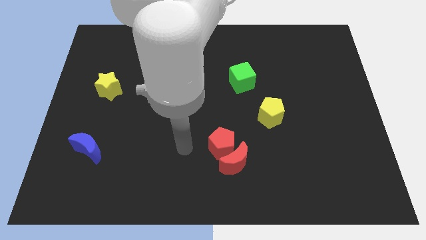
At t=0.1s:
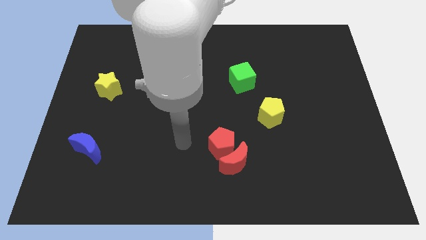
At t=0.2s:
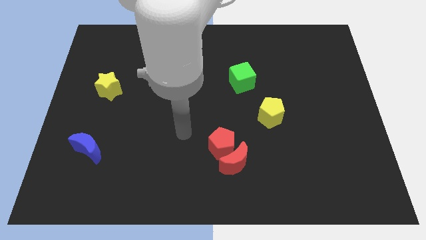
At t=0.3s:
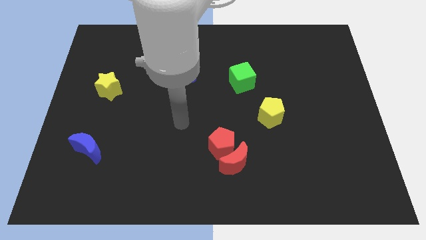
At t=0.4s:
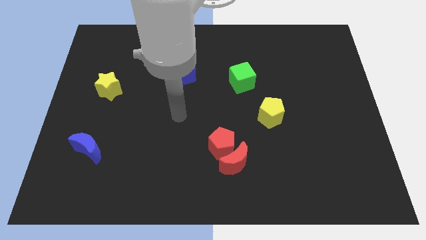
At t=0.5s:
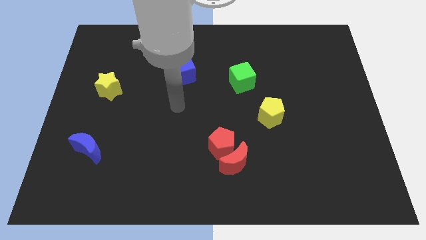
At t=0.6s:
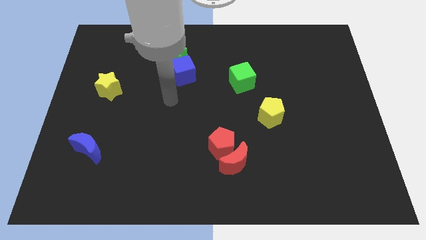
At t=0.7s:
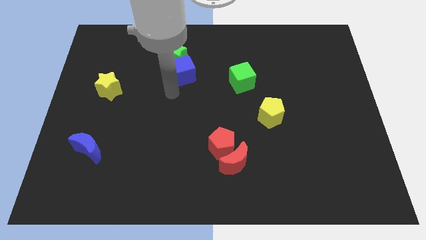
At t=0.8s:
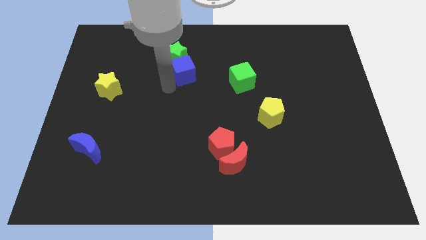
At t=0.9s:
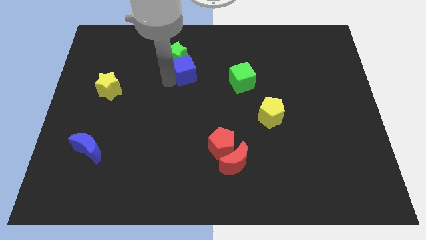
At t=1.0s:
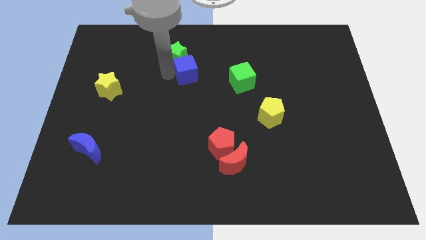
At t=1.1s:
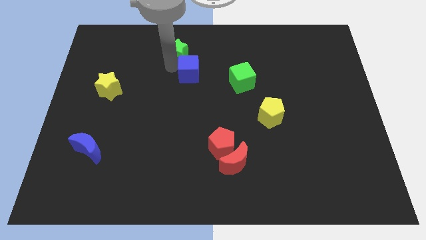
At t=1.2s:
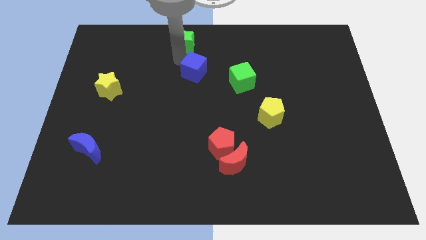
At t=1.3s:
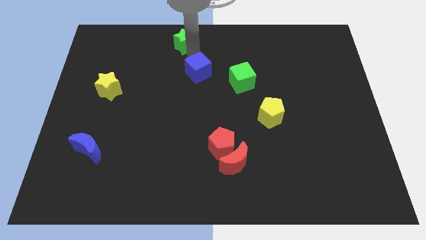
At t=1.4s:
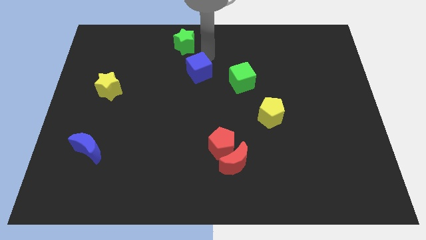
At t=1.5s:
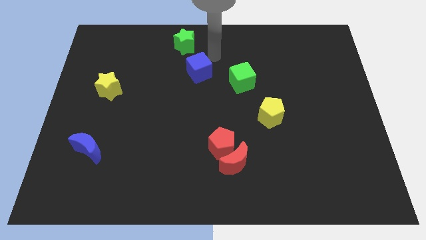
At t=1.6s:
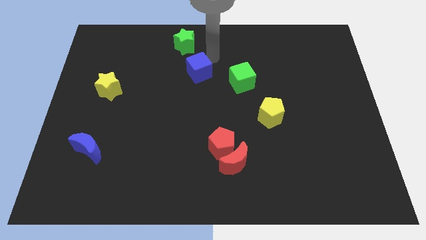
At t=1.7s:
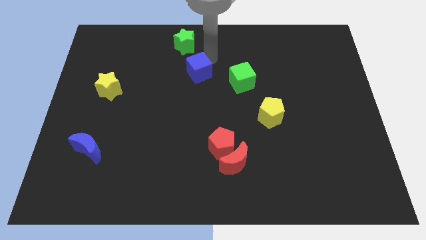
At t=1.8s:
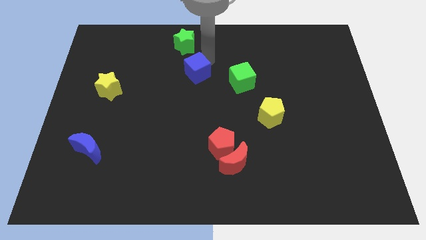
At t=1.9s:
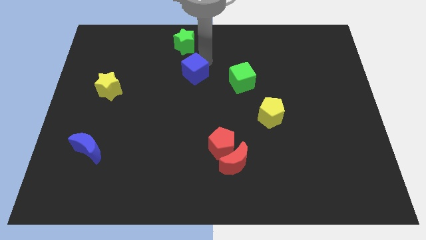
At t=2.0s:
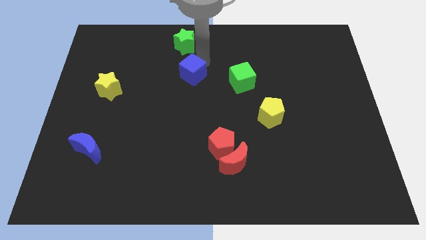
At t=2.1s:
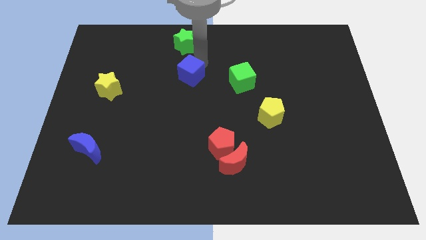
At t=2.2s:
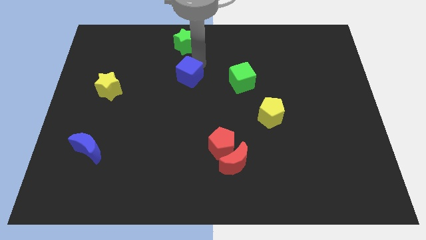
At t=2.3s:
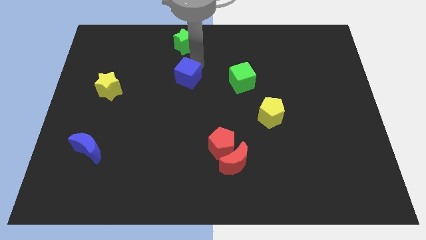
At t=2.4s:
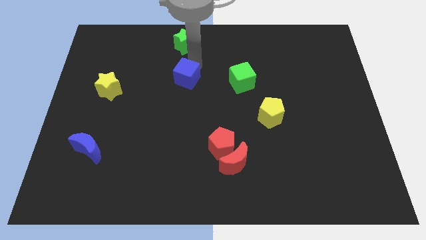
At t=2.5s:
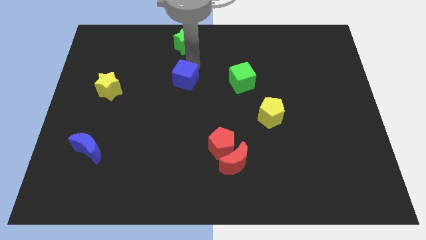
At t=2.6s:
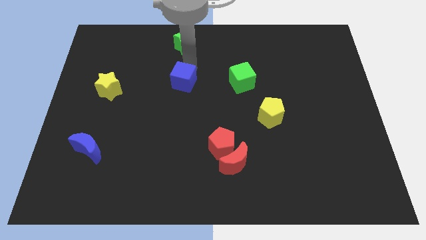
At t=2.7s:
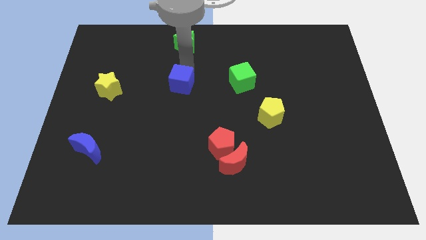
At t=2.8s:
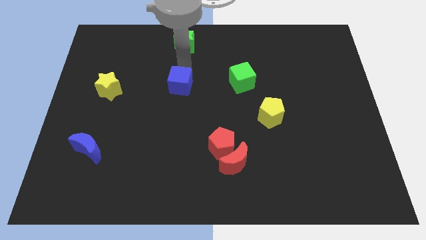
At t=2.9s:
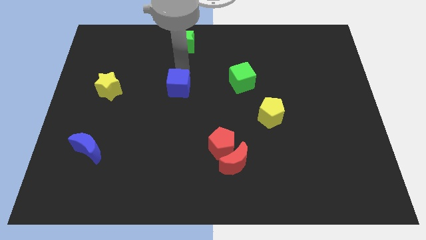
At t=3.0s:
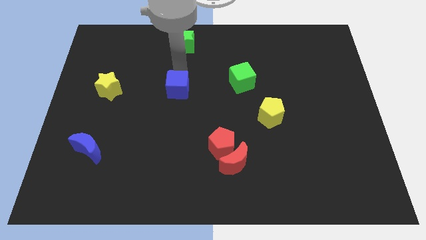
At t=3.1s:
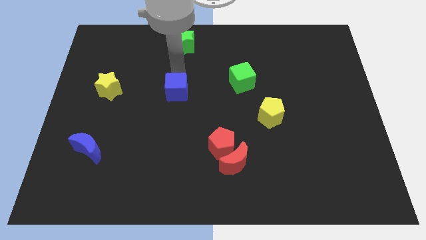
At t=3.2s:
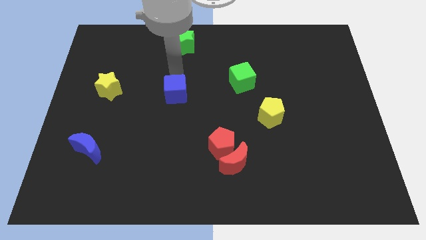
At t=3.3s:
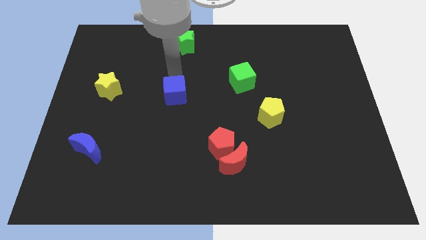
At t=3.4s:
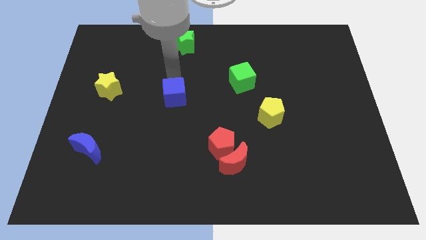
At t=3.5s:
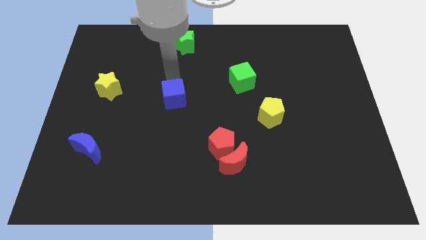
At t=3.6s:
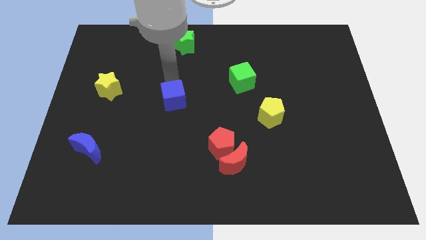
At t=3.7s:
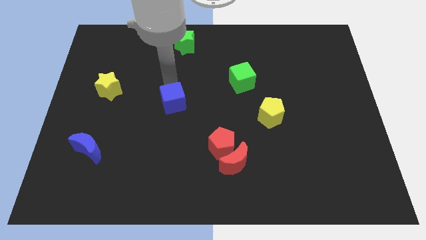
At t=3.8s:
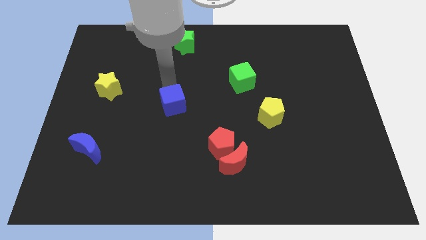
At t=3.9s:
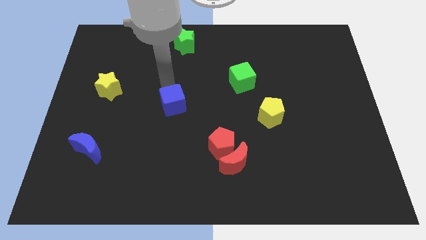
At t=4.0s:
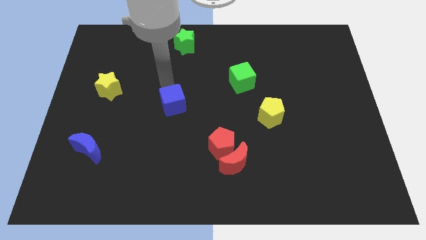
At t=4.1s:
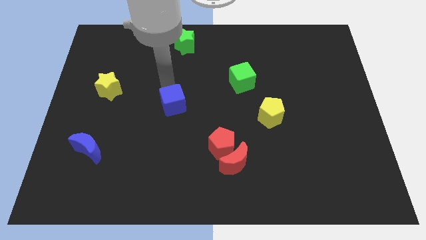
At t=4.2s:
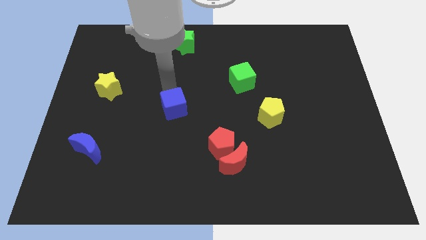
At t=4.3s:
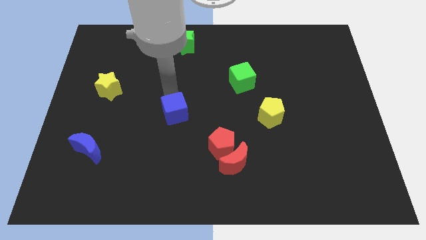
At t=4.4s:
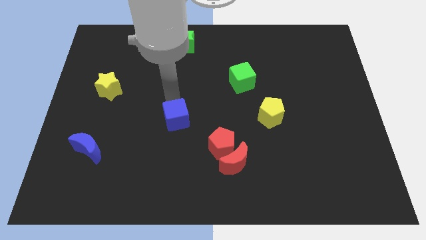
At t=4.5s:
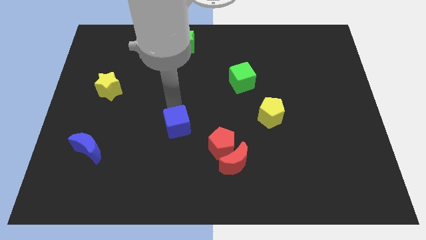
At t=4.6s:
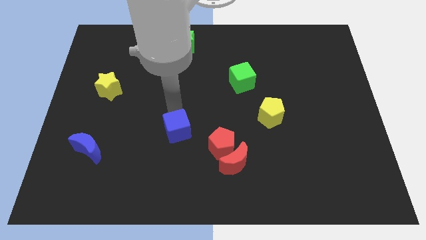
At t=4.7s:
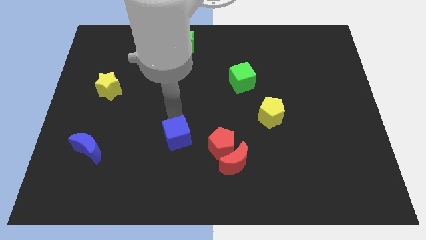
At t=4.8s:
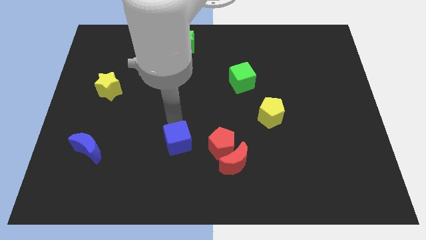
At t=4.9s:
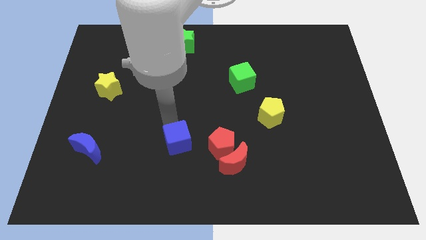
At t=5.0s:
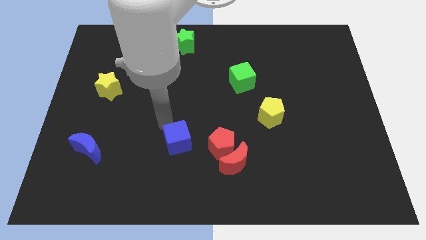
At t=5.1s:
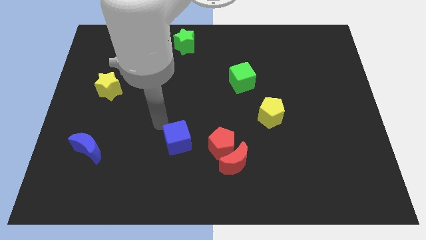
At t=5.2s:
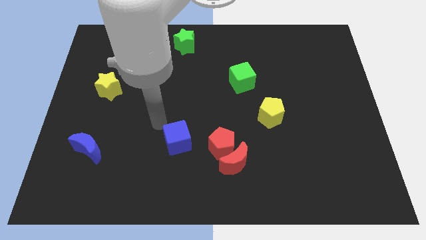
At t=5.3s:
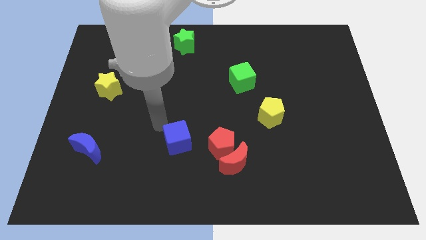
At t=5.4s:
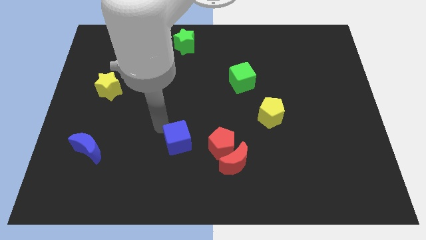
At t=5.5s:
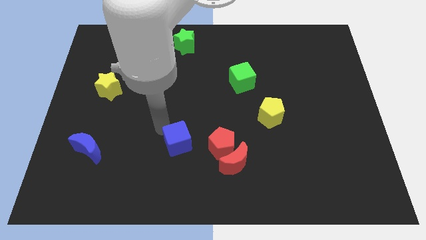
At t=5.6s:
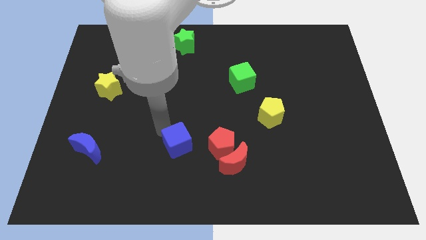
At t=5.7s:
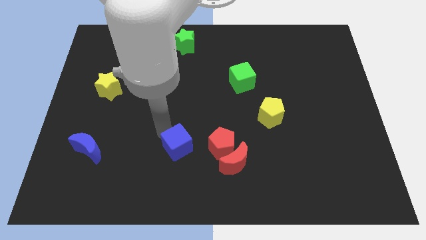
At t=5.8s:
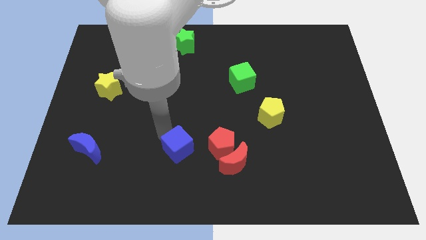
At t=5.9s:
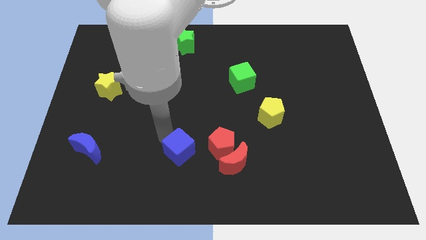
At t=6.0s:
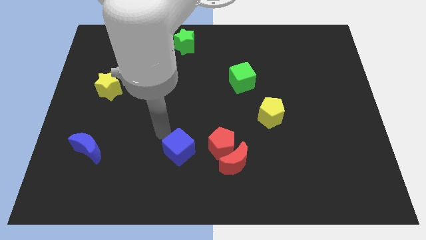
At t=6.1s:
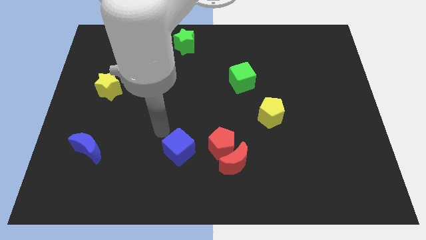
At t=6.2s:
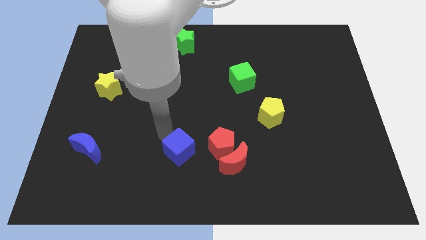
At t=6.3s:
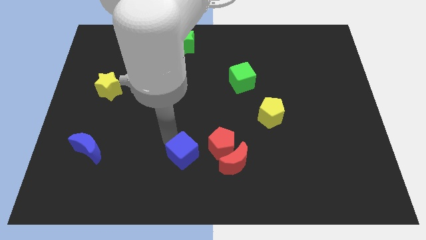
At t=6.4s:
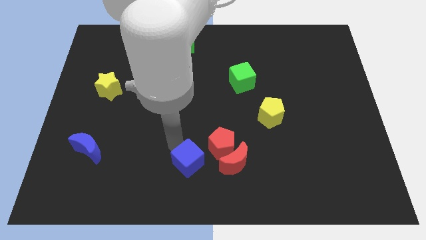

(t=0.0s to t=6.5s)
put the blue cube to the bottom side
